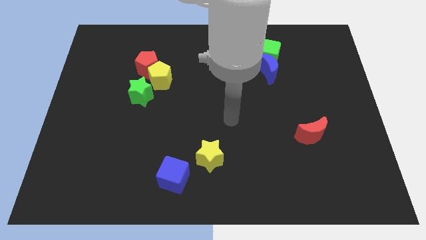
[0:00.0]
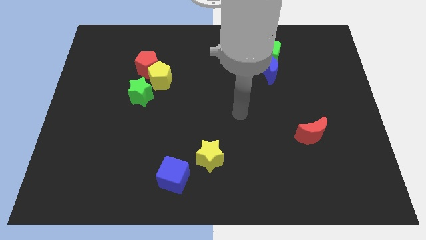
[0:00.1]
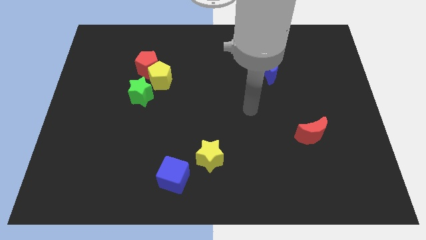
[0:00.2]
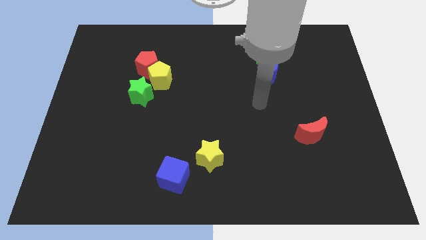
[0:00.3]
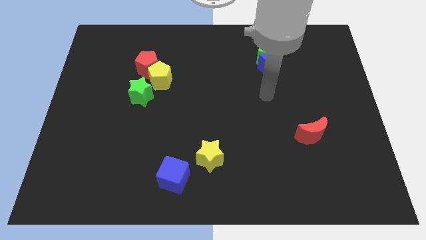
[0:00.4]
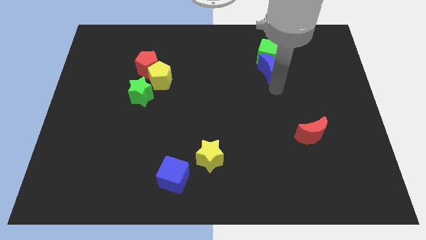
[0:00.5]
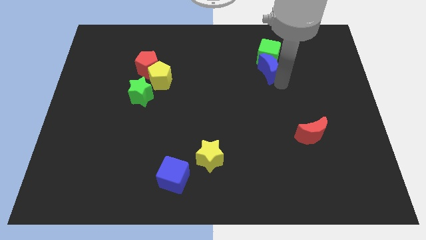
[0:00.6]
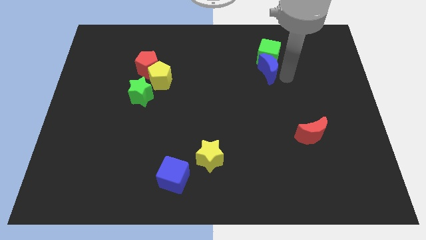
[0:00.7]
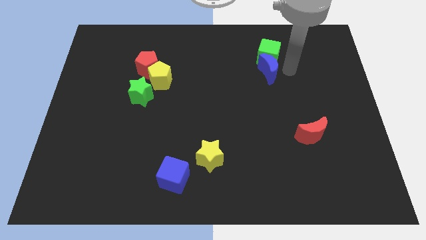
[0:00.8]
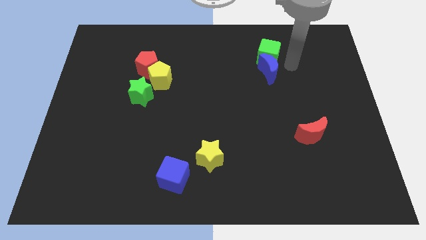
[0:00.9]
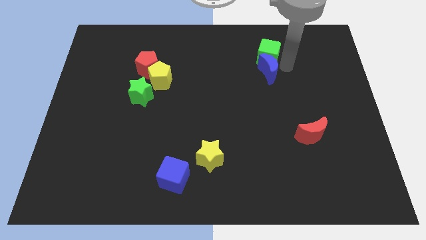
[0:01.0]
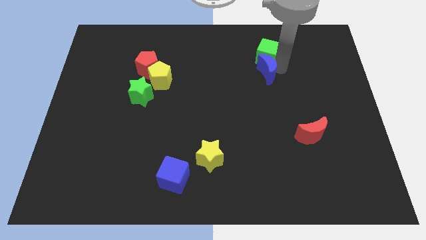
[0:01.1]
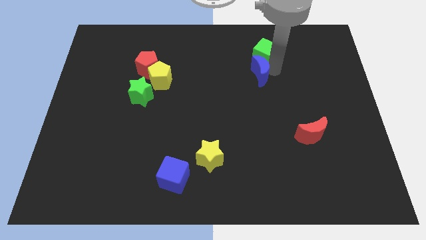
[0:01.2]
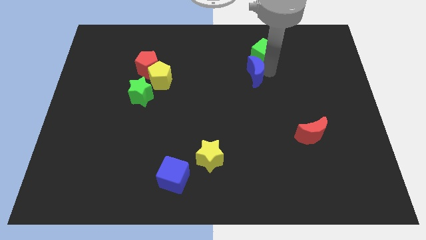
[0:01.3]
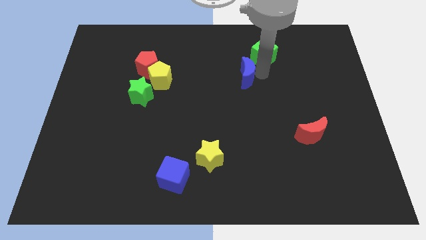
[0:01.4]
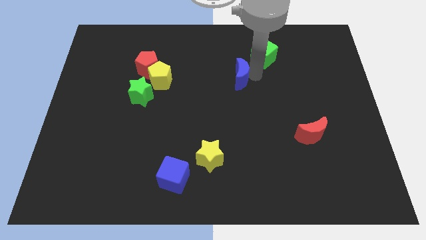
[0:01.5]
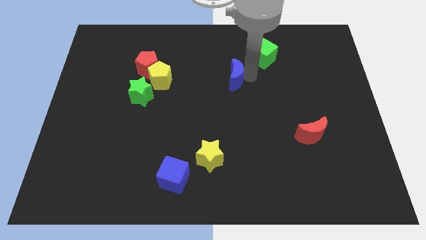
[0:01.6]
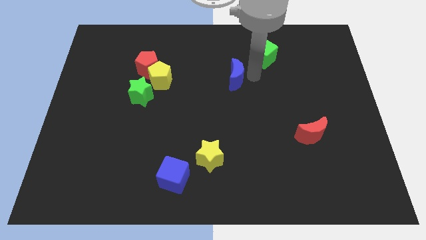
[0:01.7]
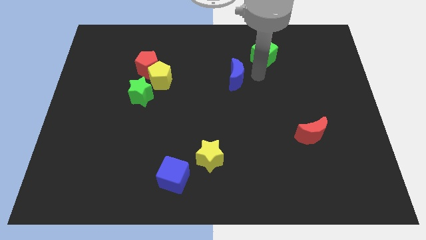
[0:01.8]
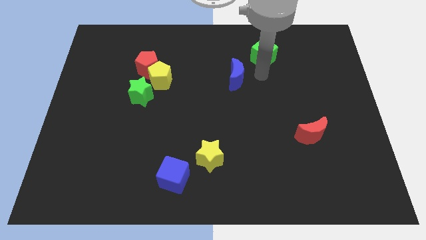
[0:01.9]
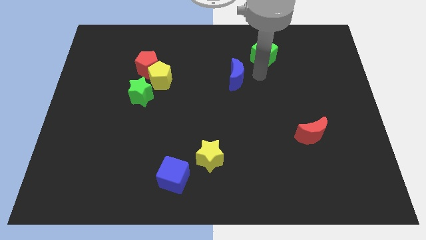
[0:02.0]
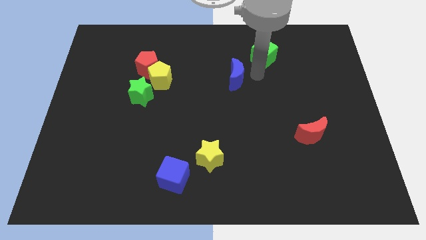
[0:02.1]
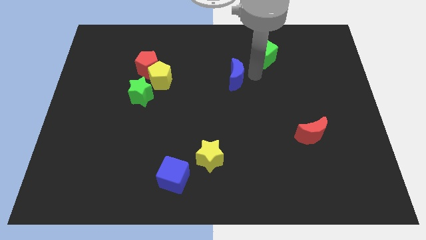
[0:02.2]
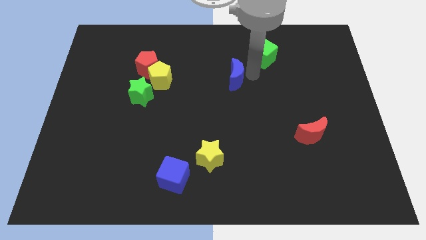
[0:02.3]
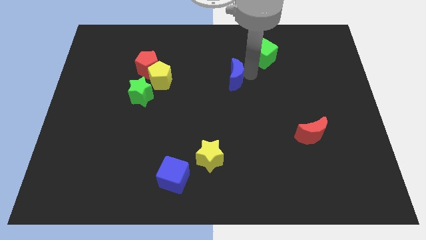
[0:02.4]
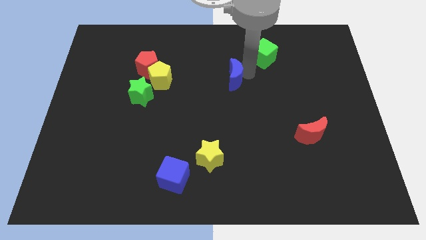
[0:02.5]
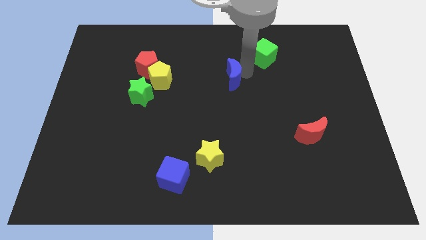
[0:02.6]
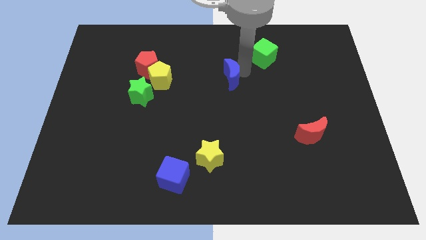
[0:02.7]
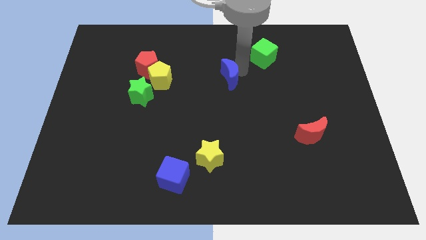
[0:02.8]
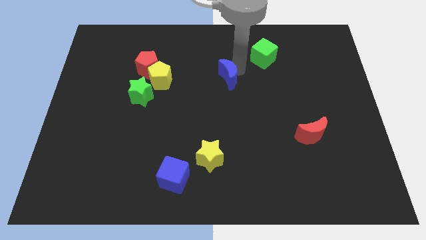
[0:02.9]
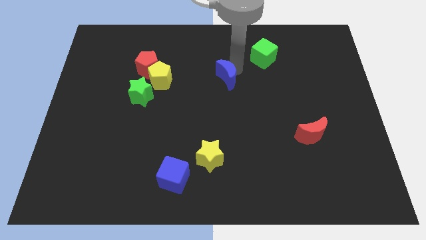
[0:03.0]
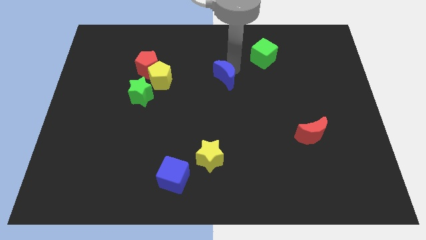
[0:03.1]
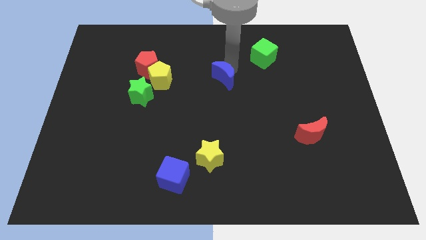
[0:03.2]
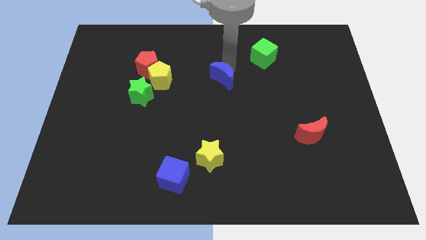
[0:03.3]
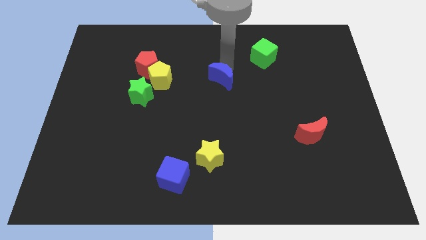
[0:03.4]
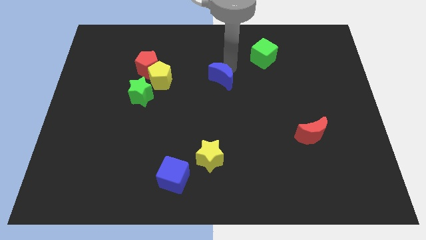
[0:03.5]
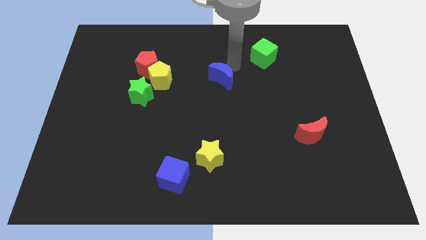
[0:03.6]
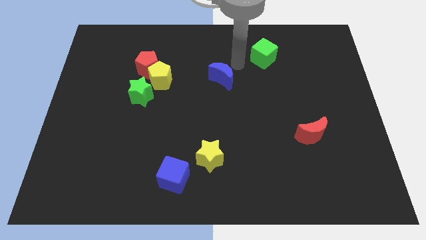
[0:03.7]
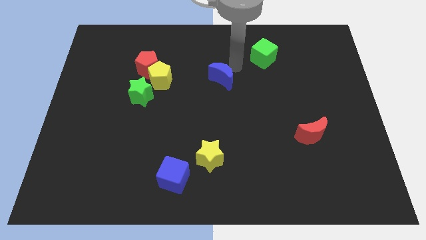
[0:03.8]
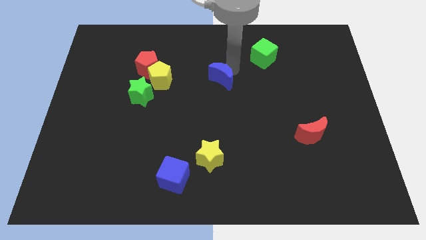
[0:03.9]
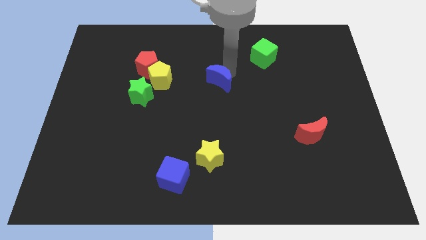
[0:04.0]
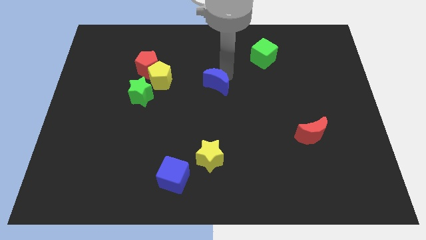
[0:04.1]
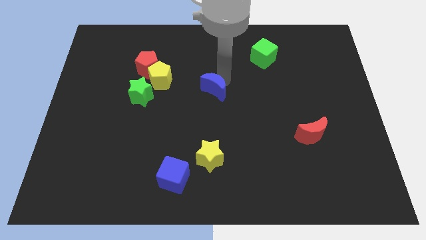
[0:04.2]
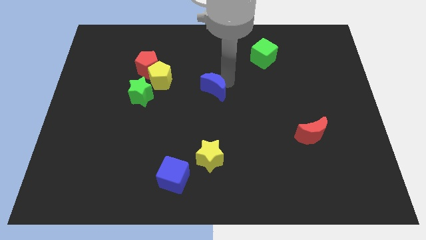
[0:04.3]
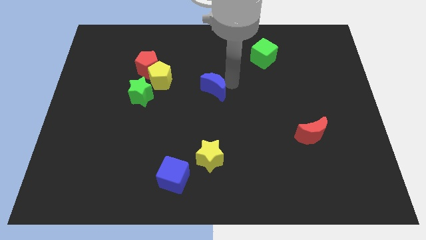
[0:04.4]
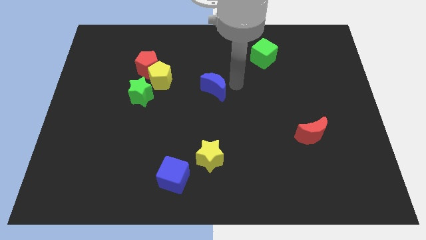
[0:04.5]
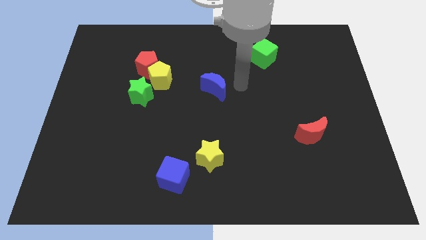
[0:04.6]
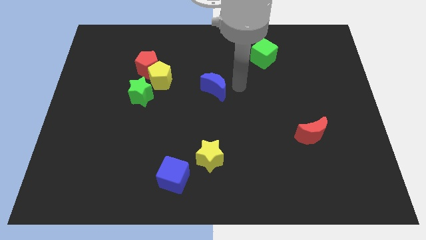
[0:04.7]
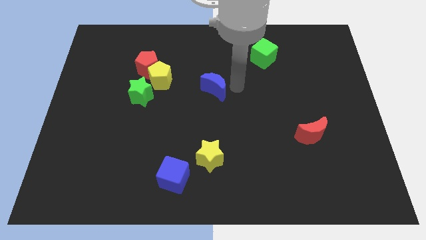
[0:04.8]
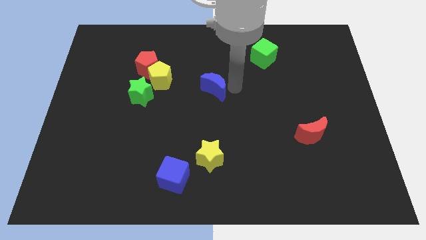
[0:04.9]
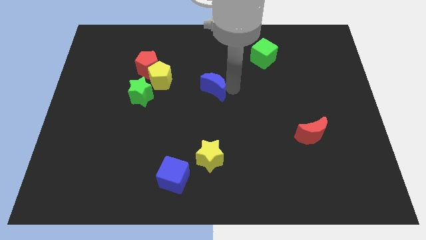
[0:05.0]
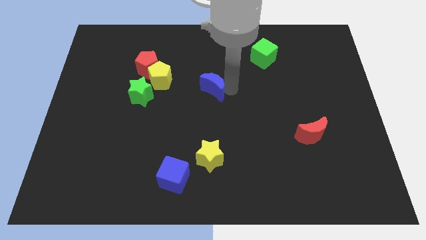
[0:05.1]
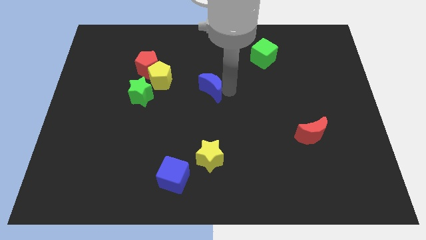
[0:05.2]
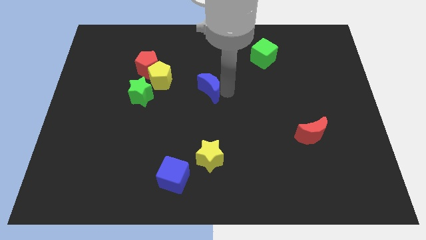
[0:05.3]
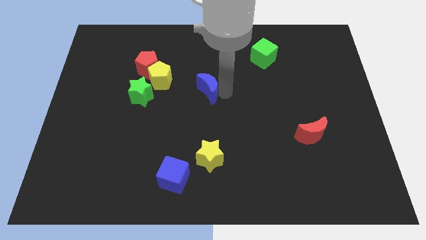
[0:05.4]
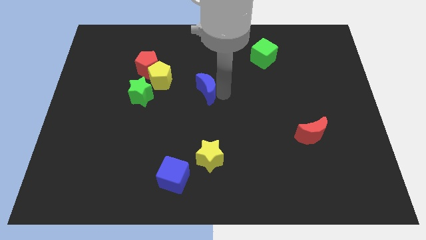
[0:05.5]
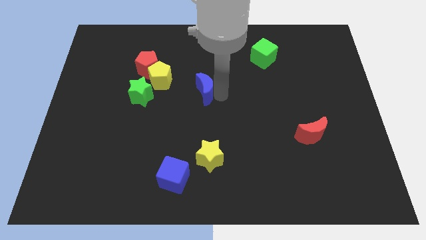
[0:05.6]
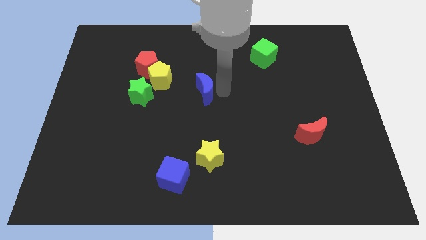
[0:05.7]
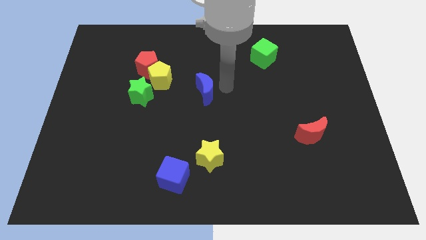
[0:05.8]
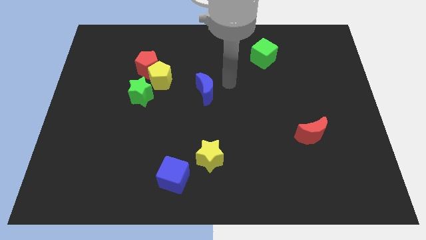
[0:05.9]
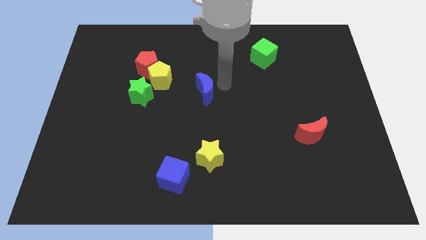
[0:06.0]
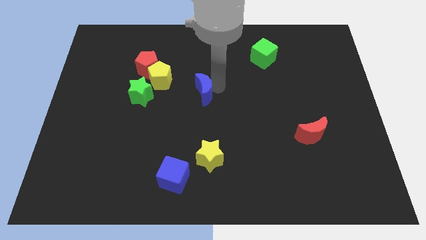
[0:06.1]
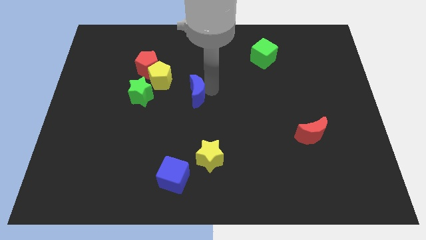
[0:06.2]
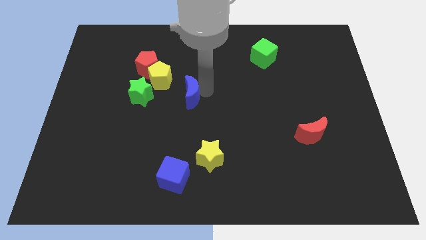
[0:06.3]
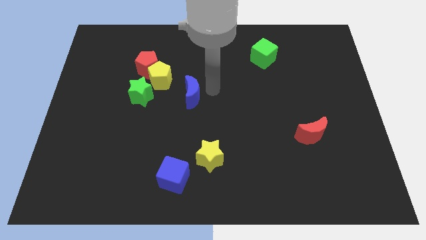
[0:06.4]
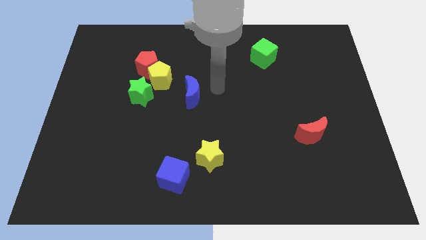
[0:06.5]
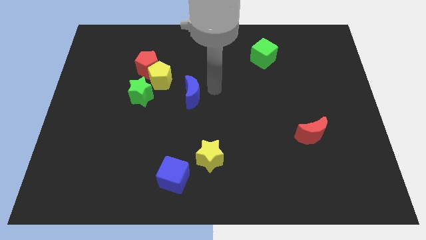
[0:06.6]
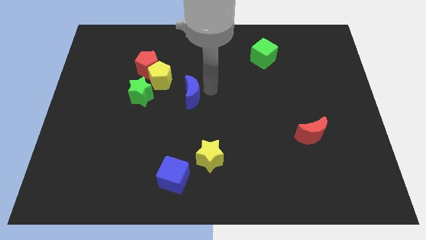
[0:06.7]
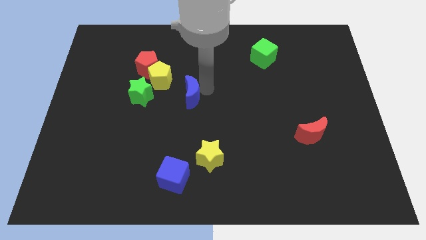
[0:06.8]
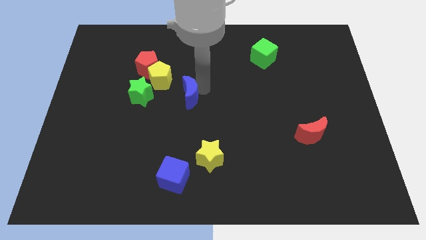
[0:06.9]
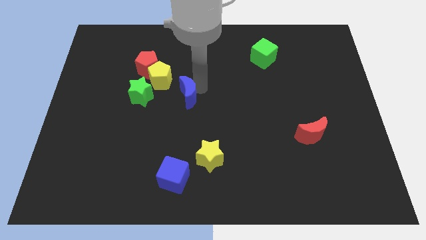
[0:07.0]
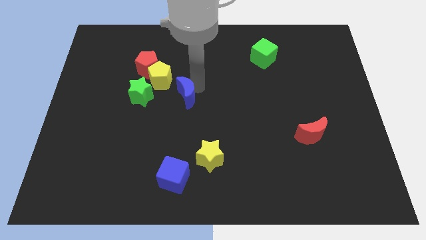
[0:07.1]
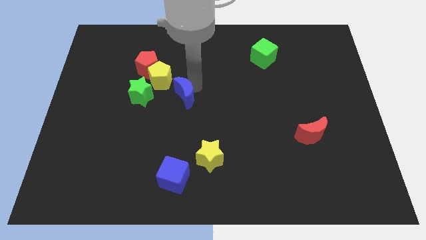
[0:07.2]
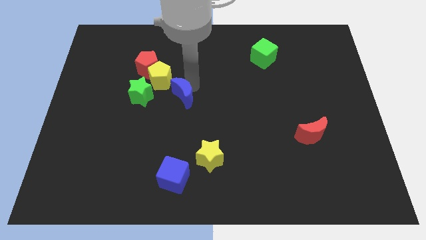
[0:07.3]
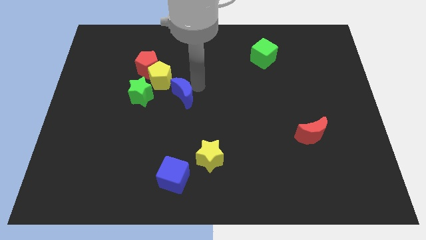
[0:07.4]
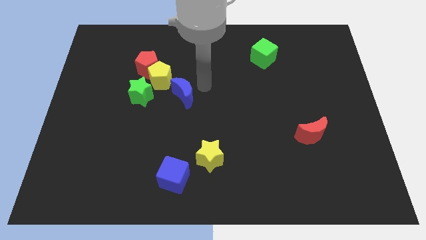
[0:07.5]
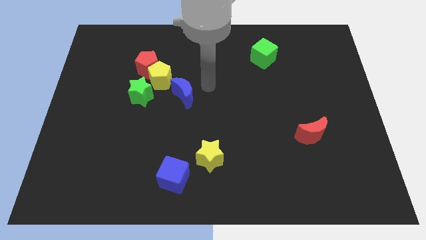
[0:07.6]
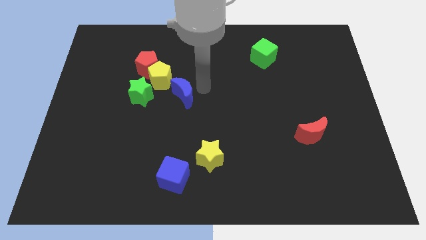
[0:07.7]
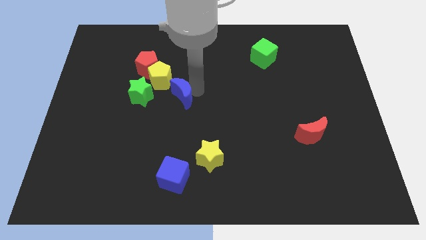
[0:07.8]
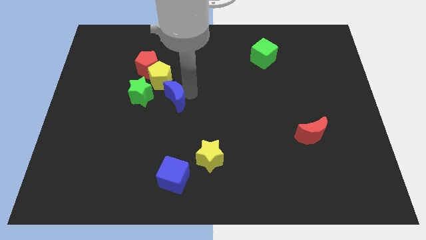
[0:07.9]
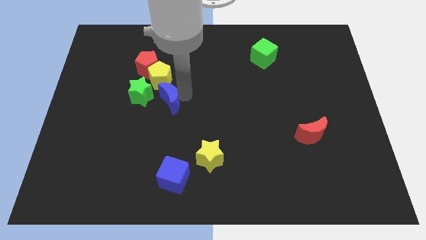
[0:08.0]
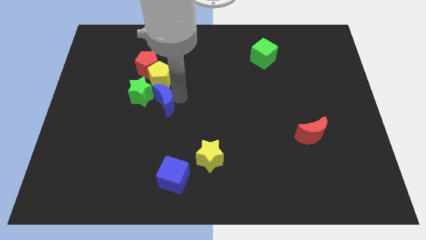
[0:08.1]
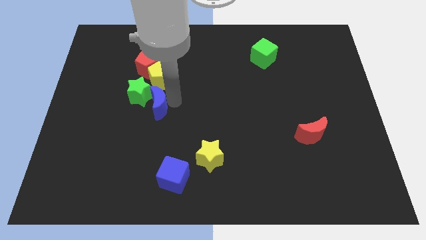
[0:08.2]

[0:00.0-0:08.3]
move the blue moon below the red pentagon
